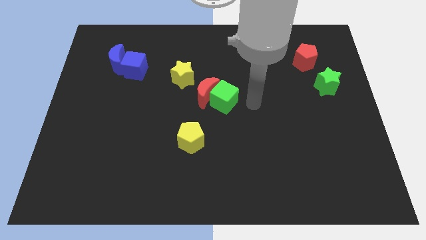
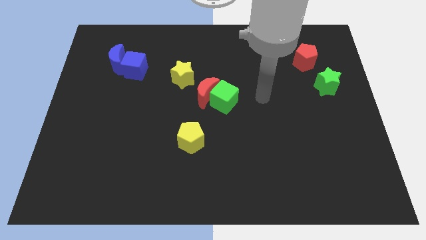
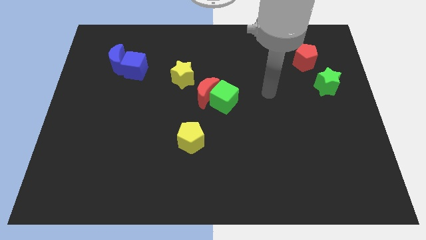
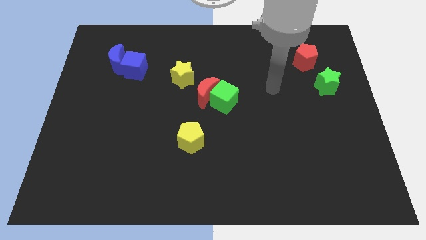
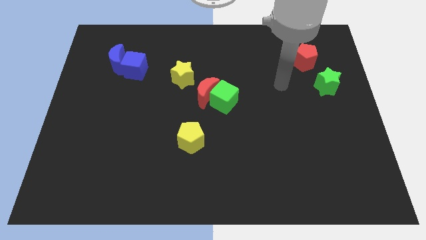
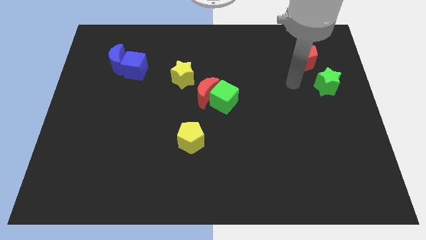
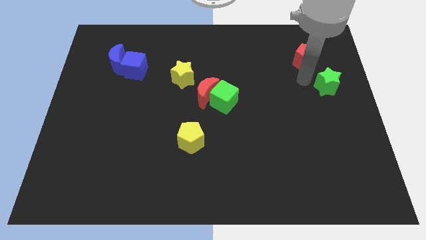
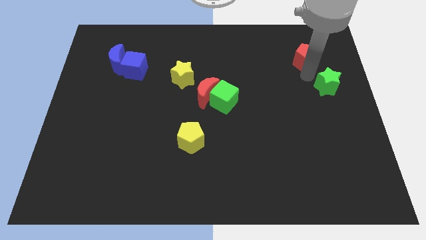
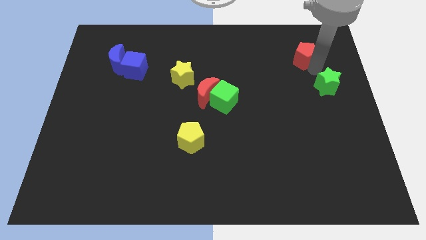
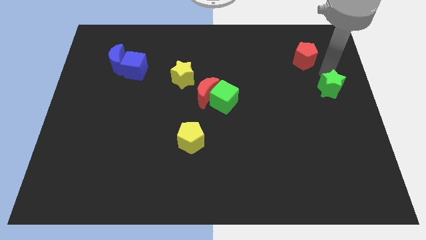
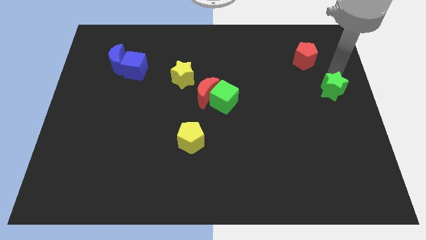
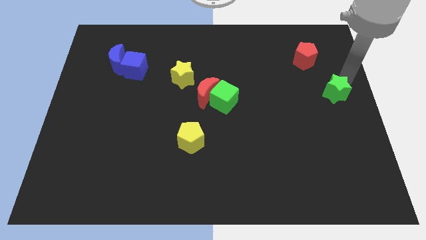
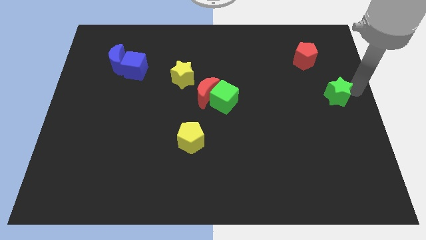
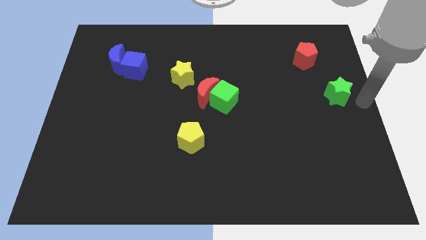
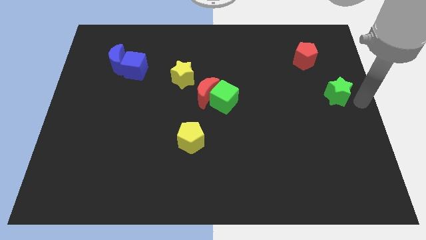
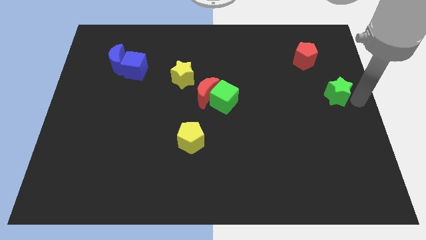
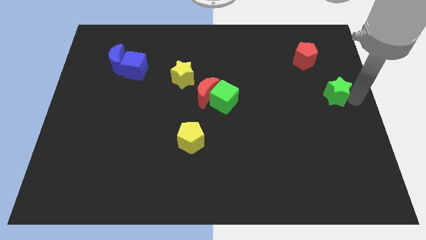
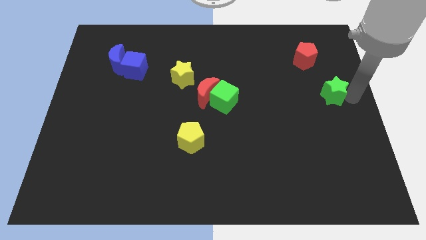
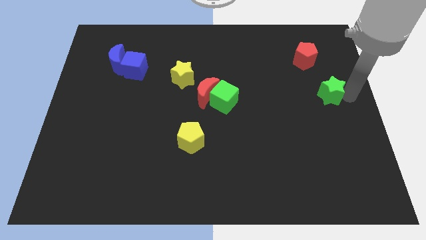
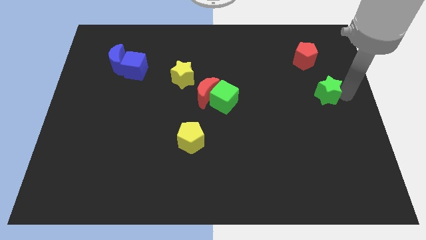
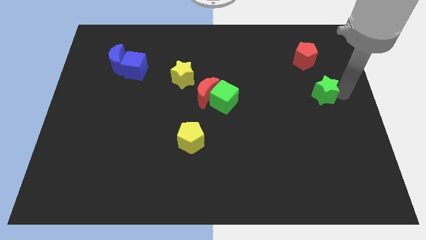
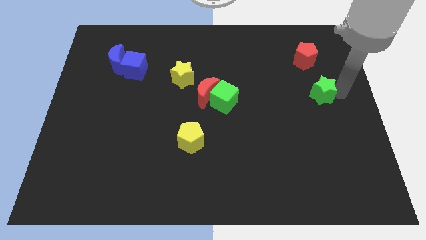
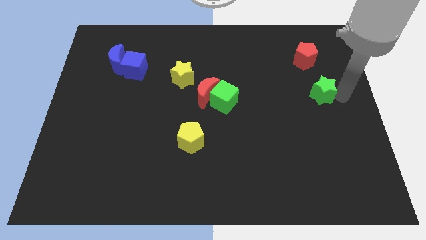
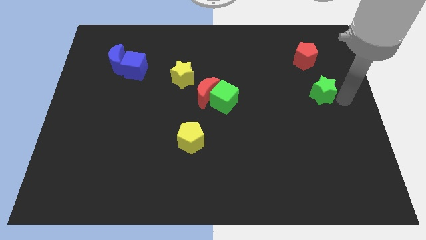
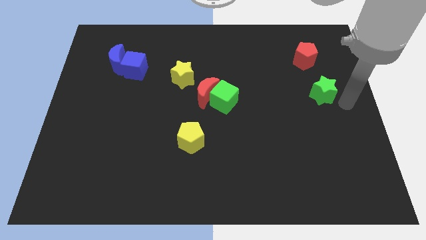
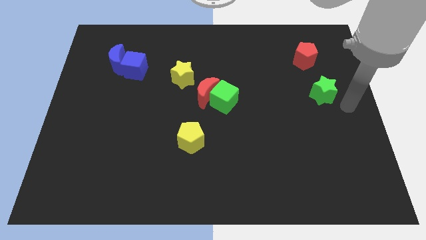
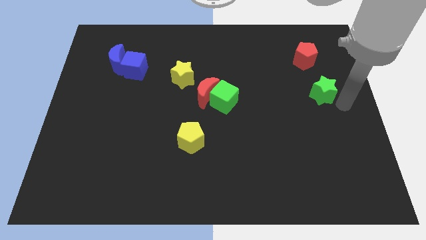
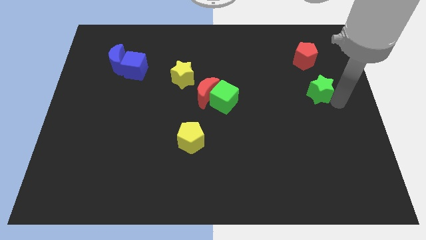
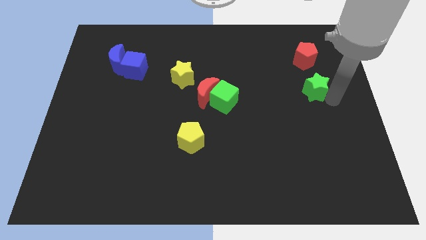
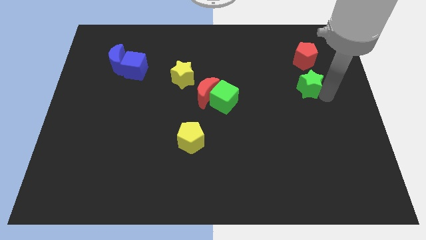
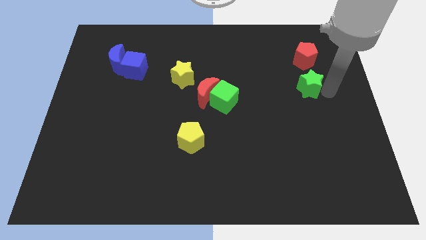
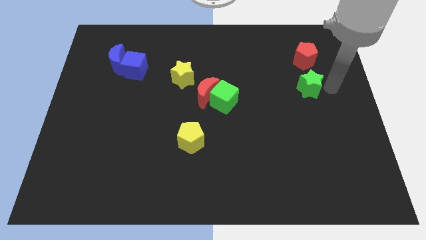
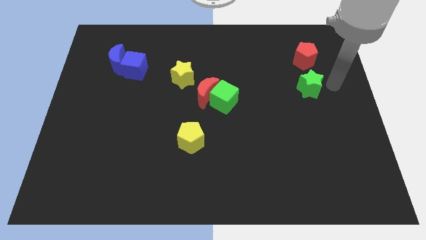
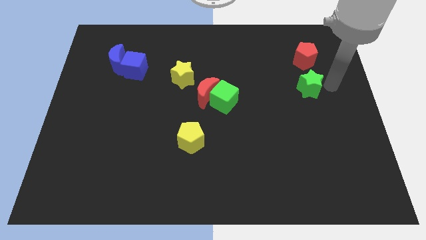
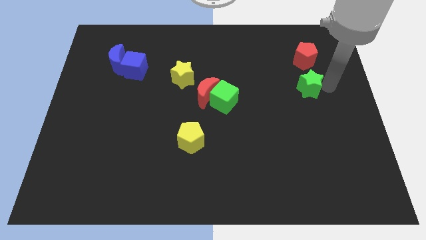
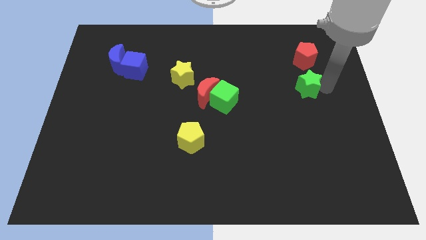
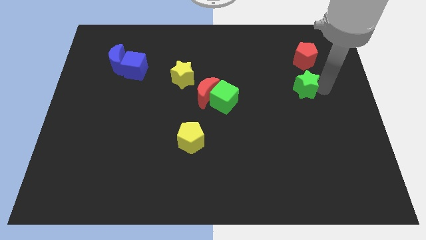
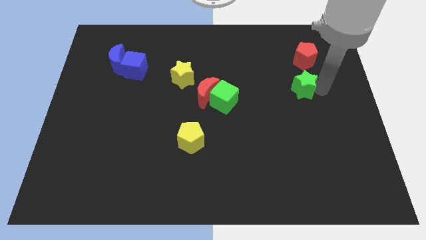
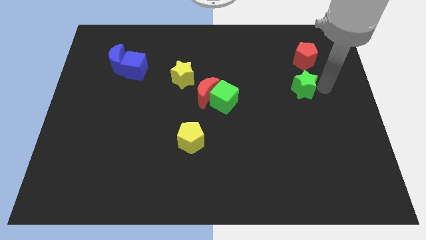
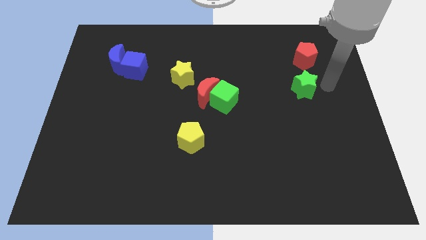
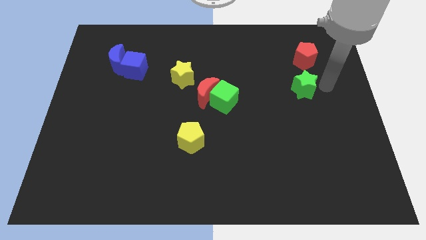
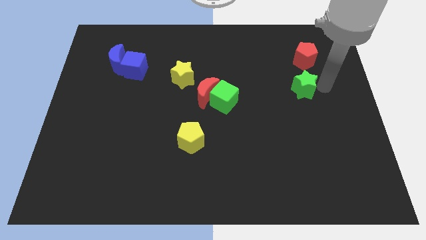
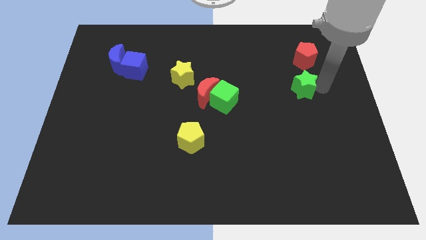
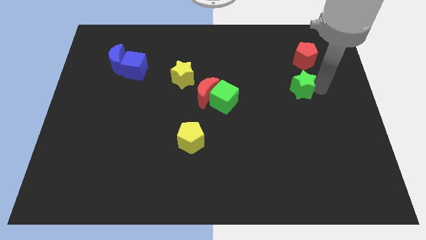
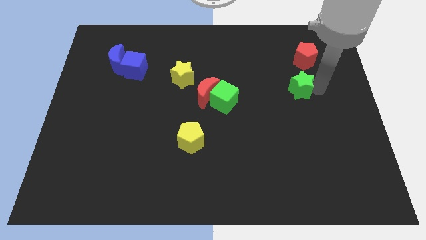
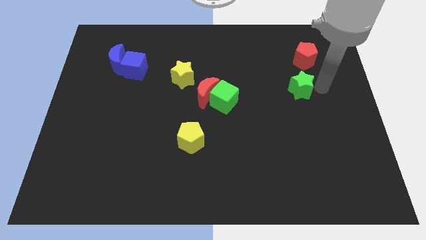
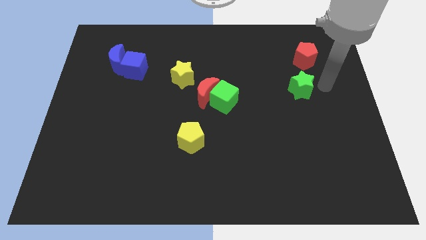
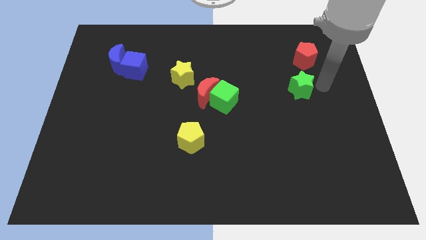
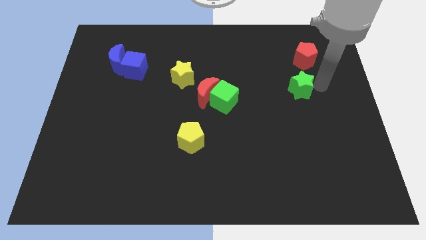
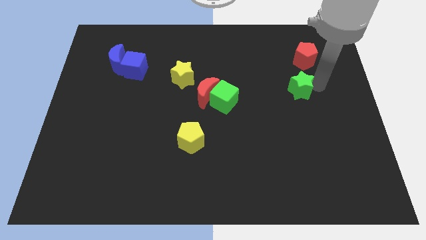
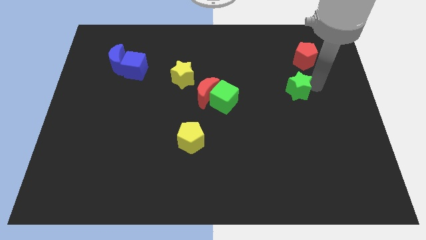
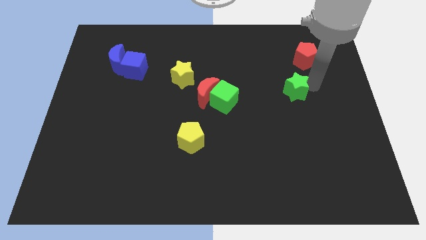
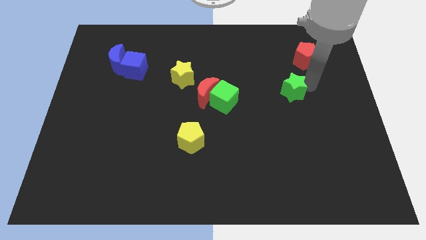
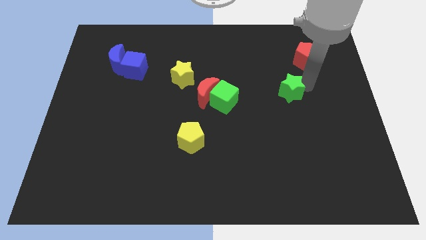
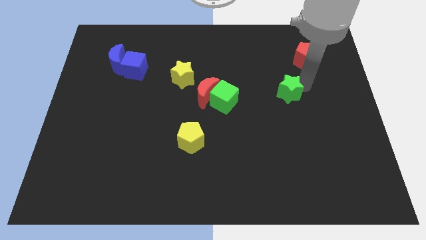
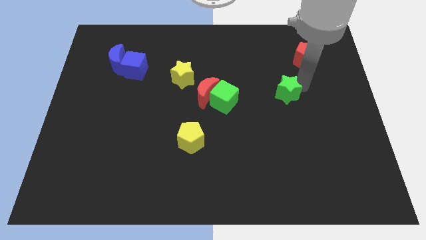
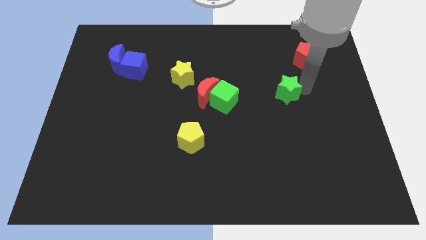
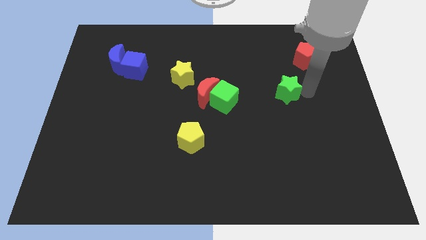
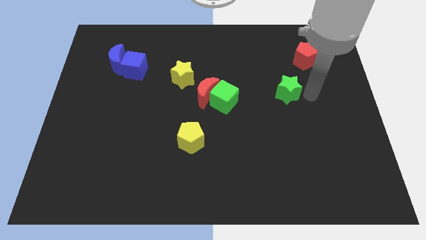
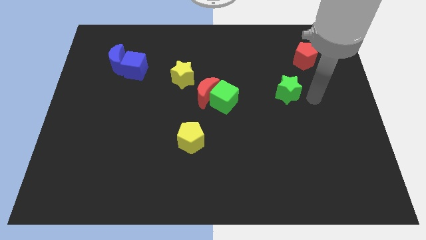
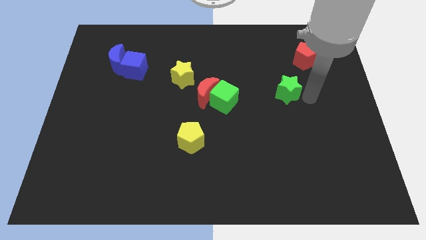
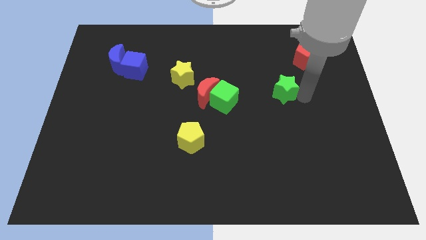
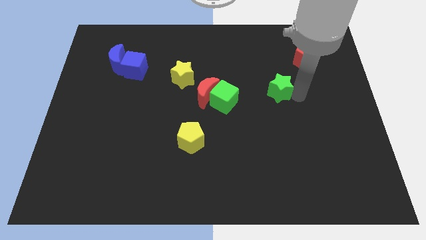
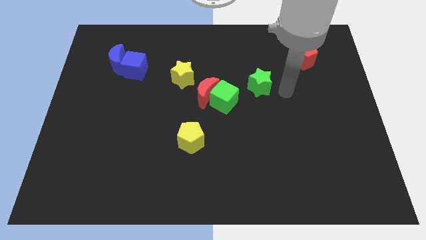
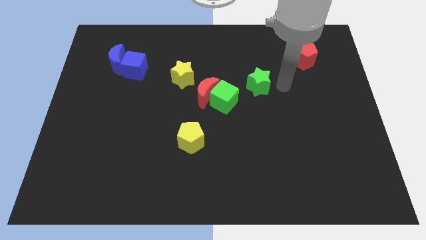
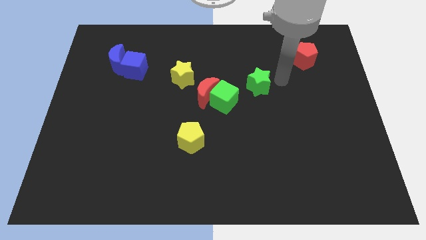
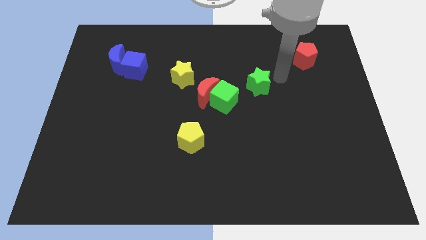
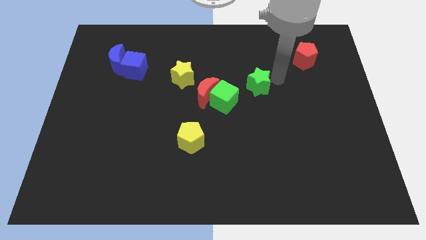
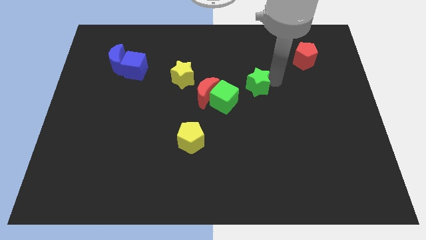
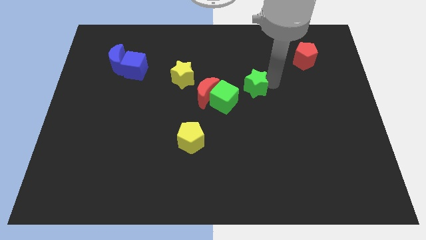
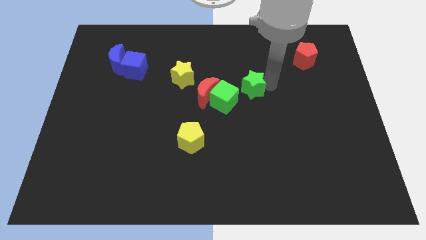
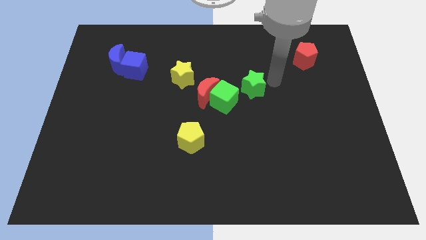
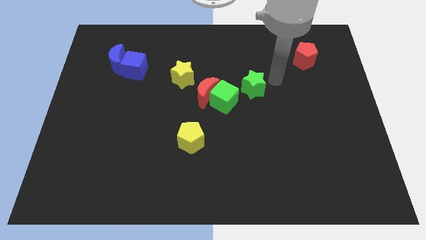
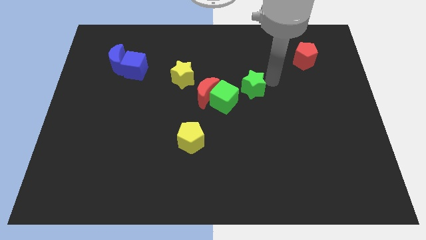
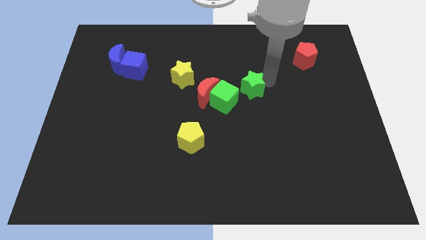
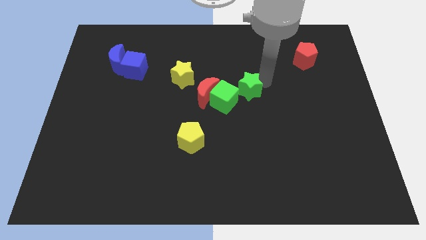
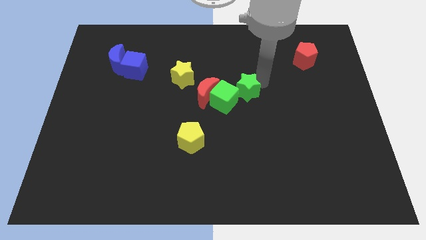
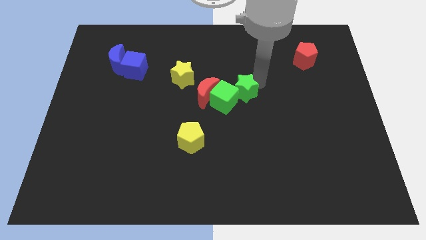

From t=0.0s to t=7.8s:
put the green star to the green cube
